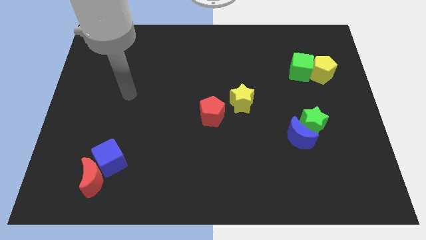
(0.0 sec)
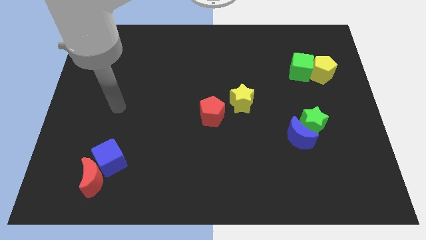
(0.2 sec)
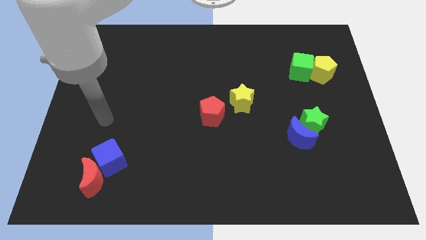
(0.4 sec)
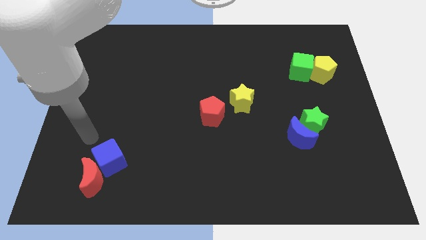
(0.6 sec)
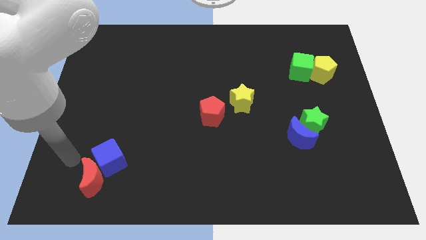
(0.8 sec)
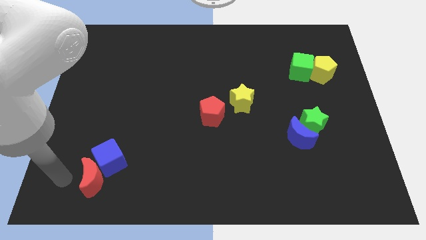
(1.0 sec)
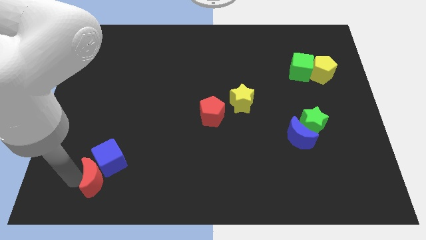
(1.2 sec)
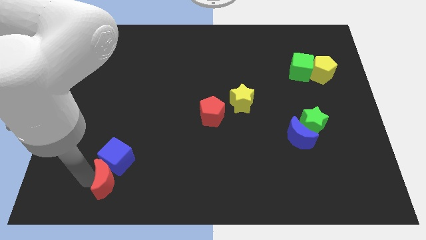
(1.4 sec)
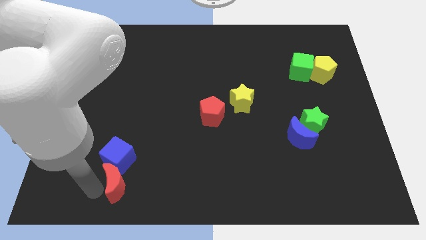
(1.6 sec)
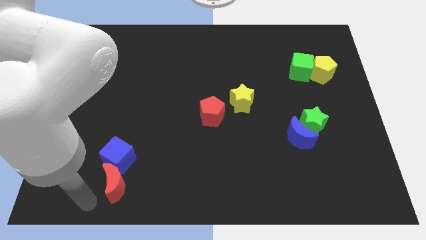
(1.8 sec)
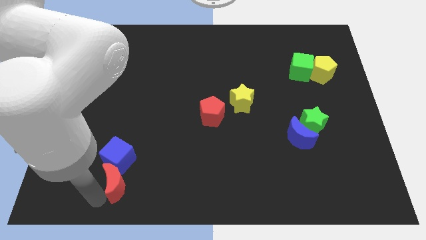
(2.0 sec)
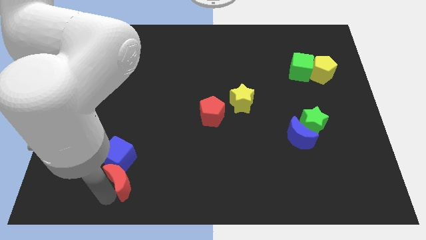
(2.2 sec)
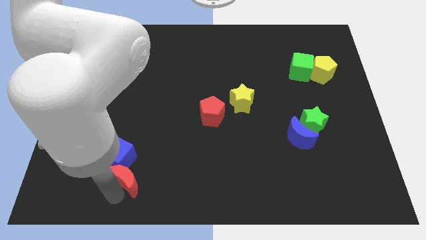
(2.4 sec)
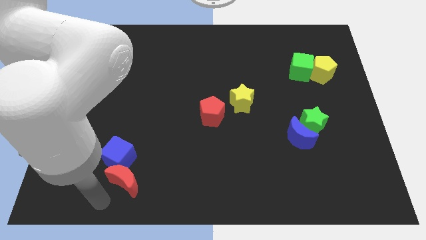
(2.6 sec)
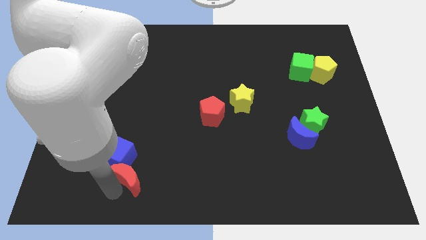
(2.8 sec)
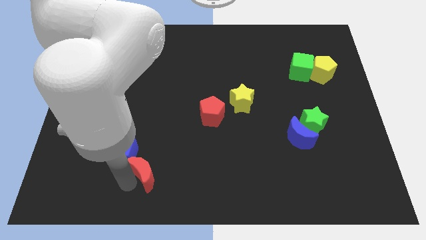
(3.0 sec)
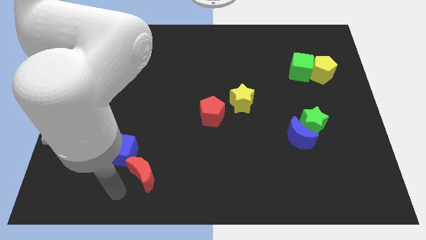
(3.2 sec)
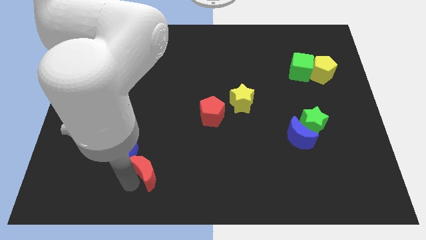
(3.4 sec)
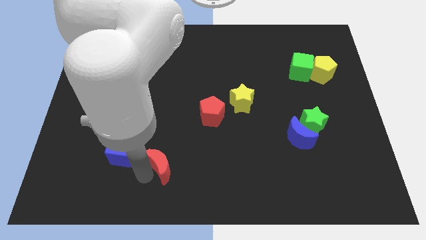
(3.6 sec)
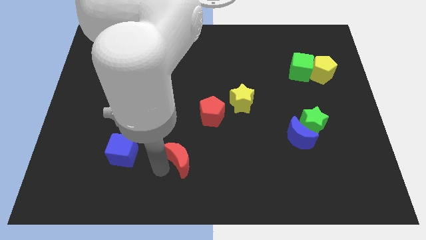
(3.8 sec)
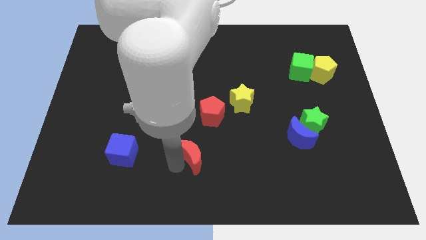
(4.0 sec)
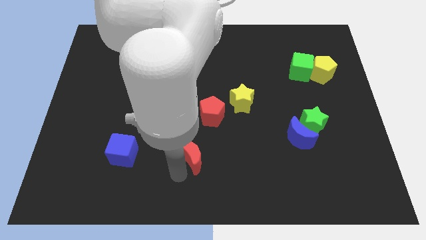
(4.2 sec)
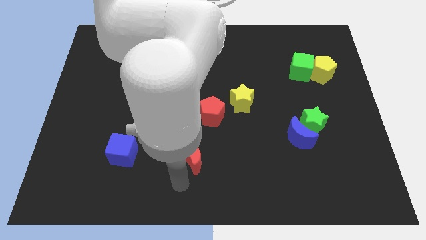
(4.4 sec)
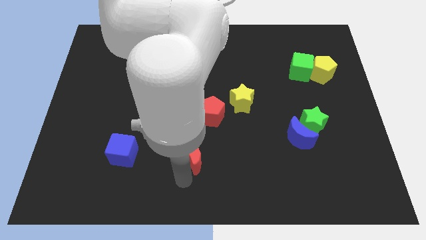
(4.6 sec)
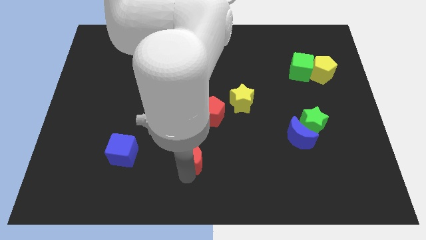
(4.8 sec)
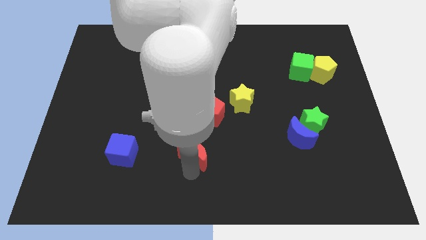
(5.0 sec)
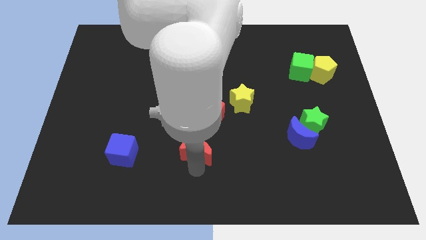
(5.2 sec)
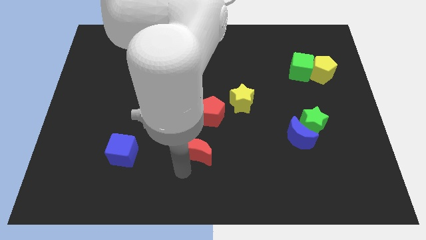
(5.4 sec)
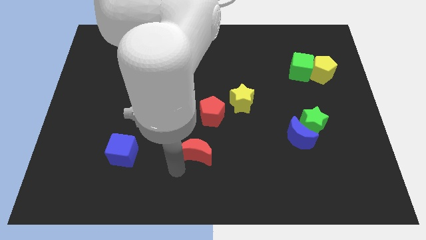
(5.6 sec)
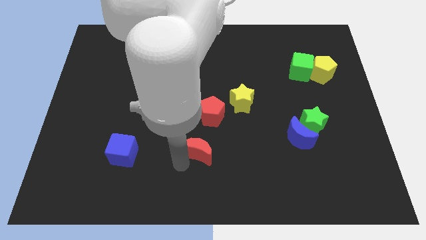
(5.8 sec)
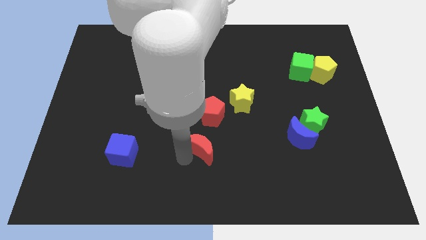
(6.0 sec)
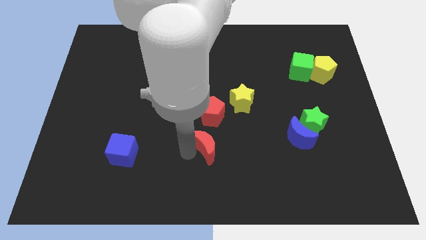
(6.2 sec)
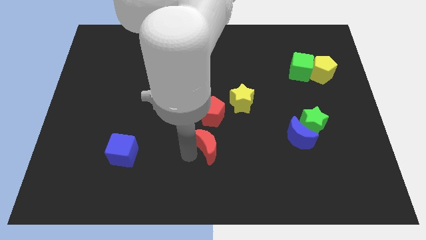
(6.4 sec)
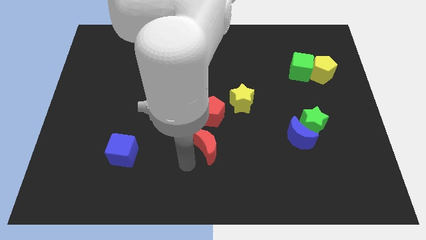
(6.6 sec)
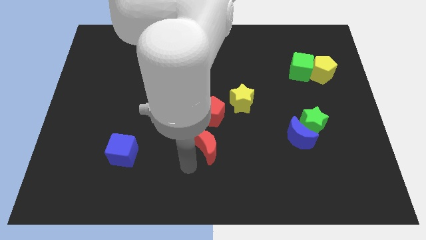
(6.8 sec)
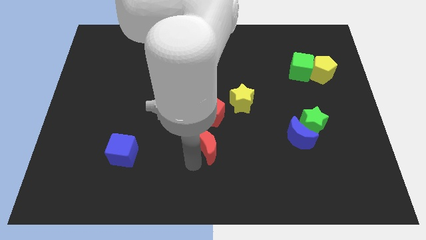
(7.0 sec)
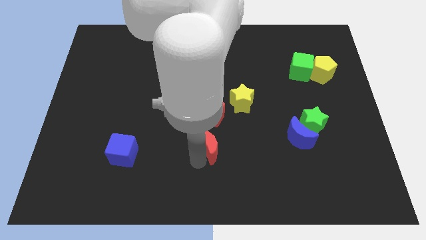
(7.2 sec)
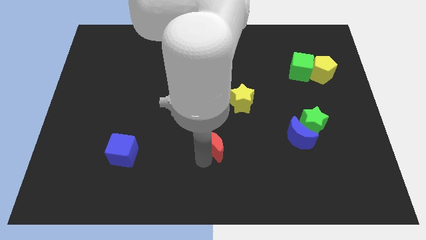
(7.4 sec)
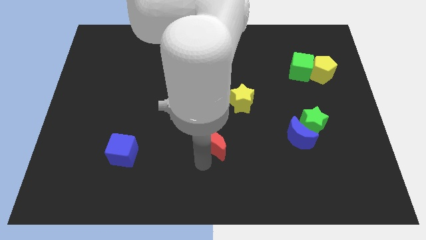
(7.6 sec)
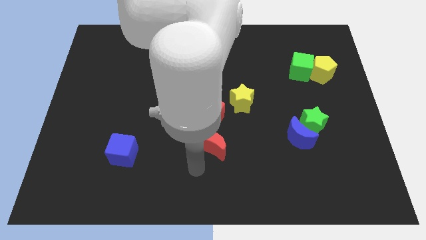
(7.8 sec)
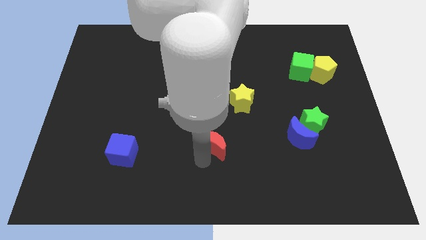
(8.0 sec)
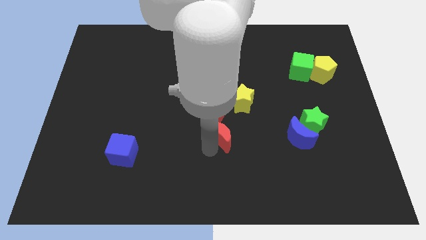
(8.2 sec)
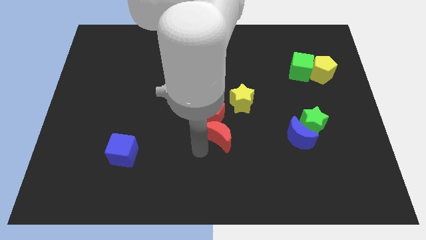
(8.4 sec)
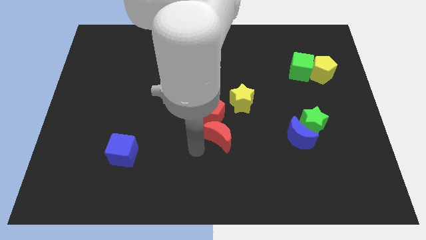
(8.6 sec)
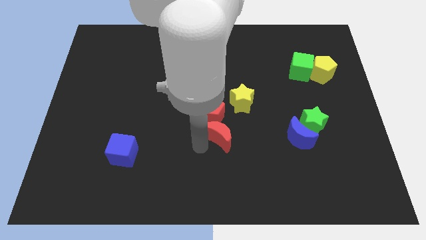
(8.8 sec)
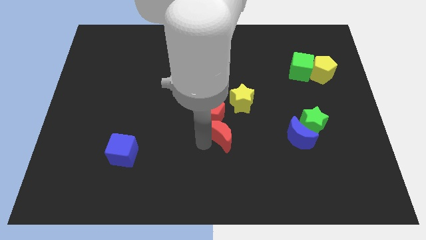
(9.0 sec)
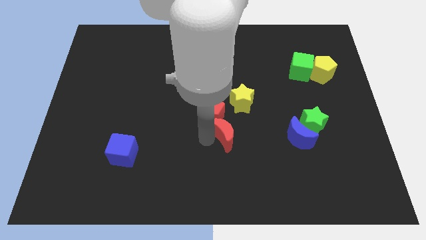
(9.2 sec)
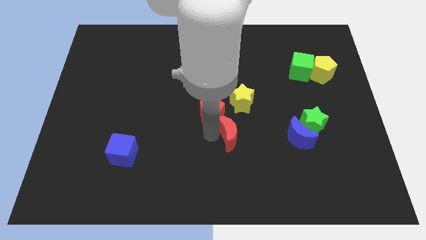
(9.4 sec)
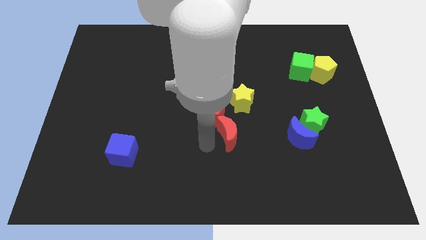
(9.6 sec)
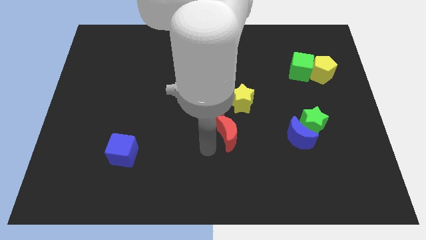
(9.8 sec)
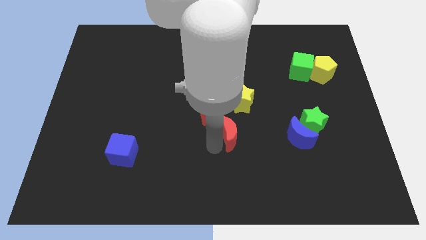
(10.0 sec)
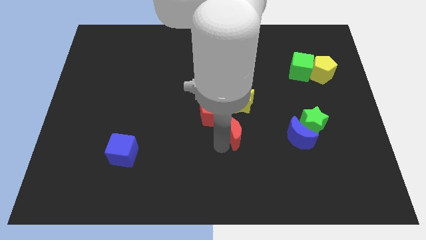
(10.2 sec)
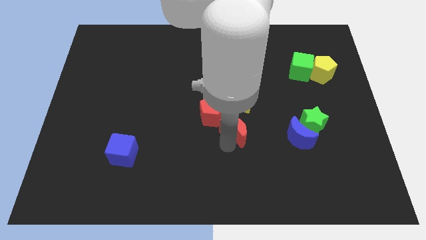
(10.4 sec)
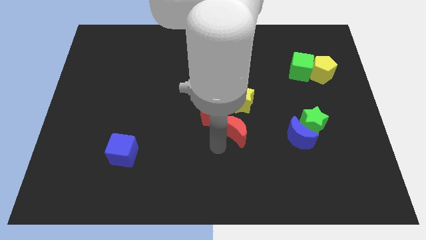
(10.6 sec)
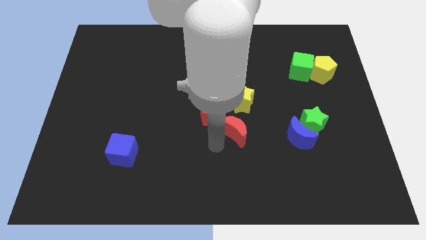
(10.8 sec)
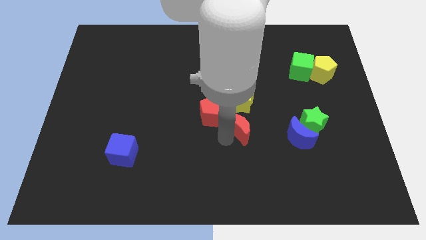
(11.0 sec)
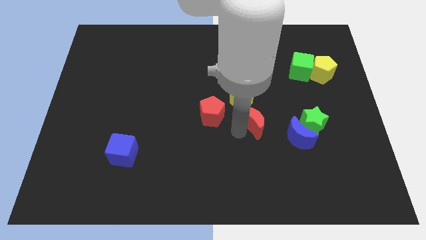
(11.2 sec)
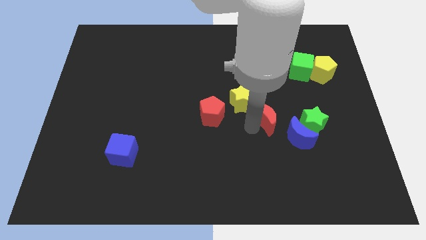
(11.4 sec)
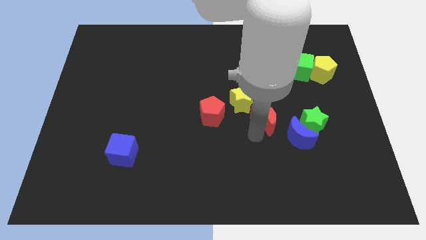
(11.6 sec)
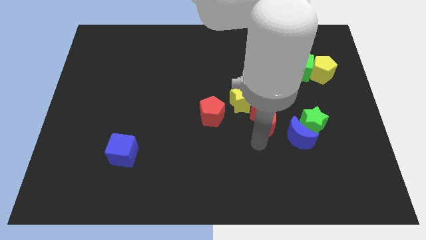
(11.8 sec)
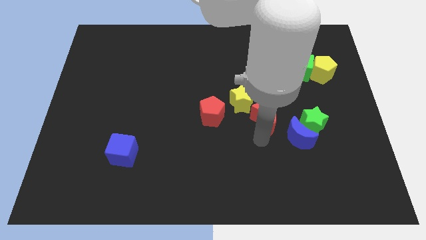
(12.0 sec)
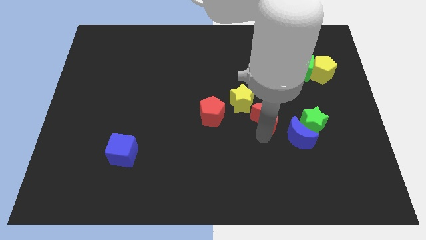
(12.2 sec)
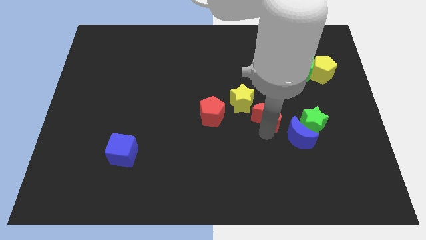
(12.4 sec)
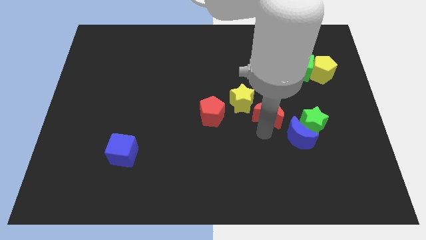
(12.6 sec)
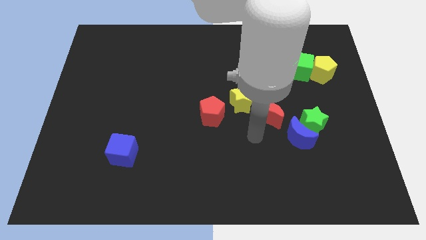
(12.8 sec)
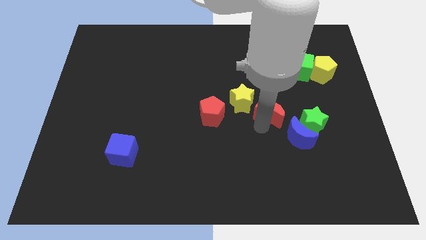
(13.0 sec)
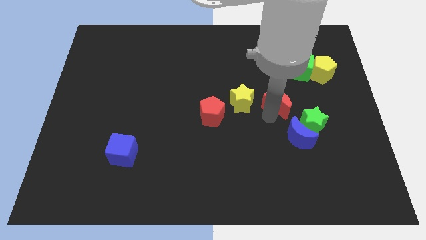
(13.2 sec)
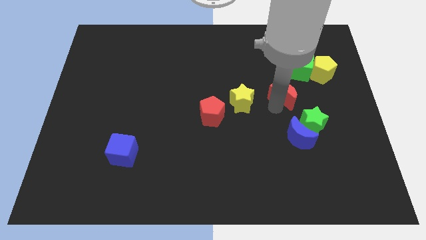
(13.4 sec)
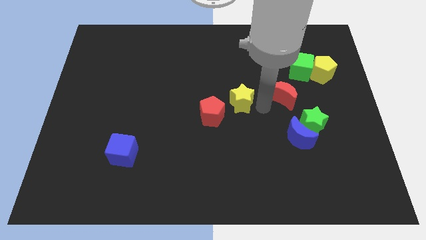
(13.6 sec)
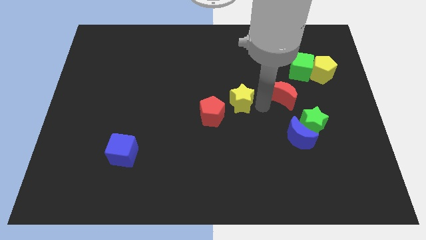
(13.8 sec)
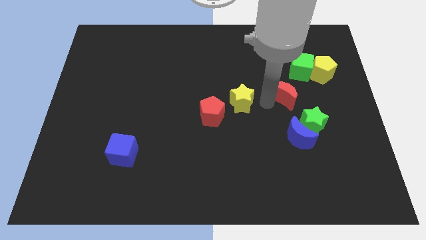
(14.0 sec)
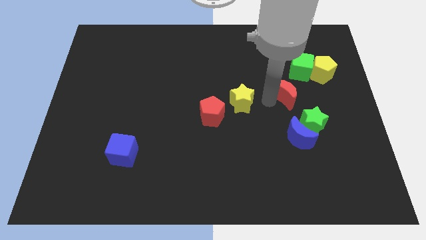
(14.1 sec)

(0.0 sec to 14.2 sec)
move the red moon to the bottom left of the yellow pentagon
